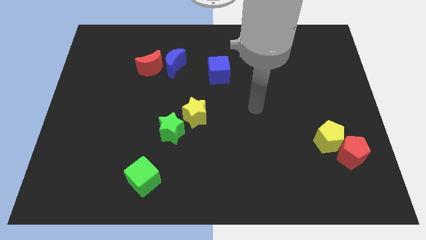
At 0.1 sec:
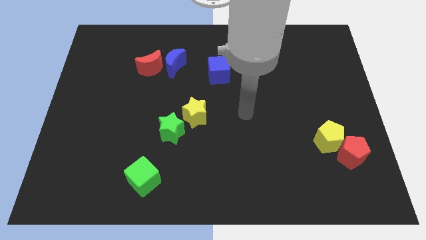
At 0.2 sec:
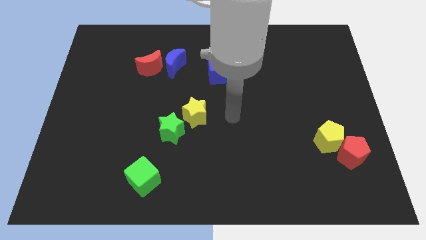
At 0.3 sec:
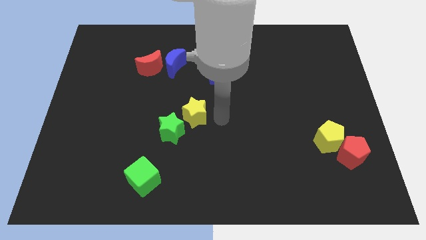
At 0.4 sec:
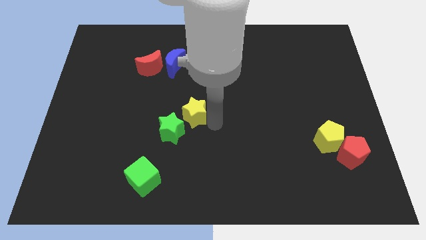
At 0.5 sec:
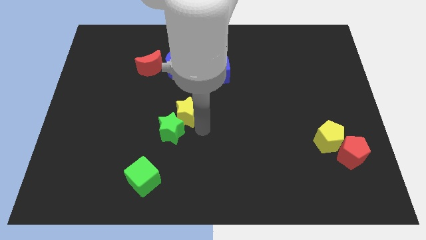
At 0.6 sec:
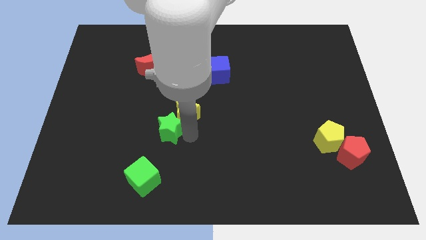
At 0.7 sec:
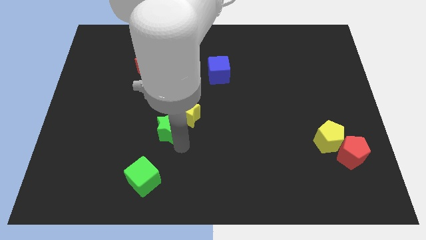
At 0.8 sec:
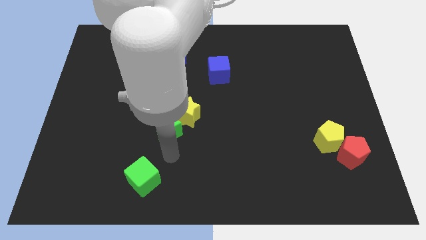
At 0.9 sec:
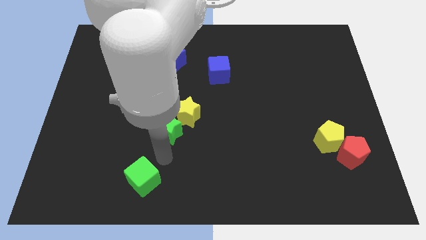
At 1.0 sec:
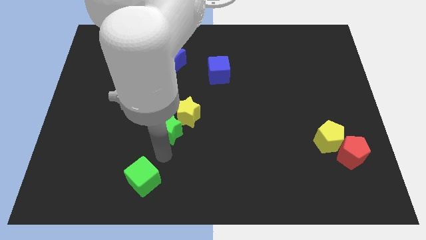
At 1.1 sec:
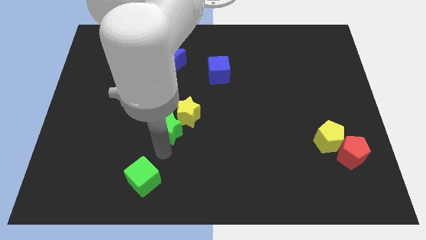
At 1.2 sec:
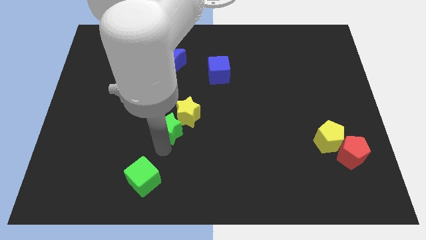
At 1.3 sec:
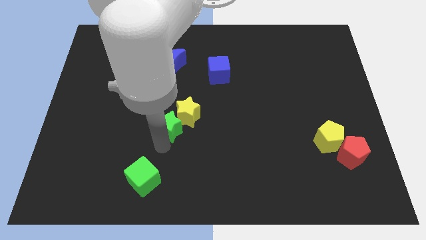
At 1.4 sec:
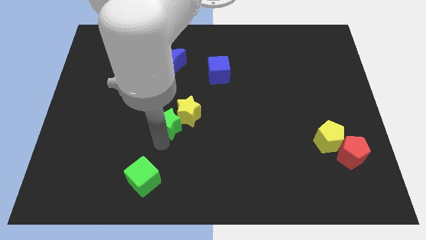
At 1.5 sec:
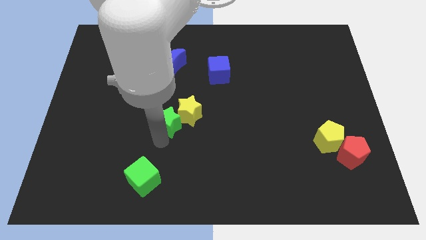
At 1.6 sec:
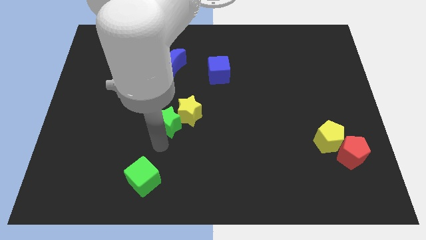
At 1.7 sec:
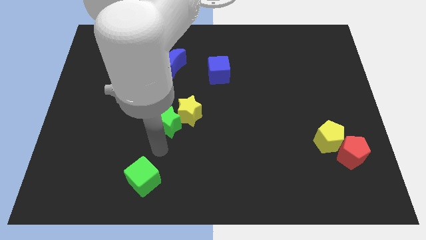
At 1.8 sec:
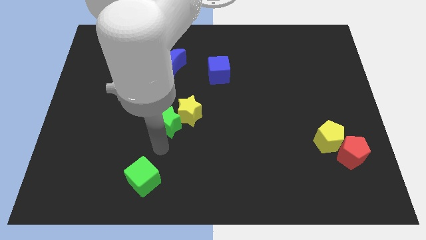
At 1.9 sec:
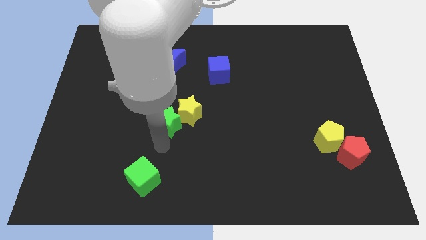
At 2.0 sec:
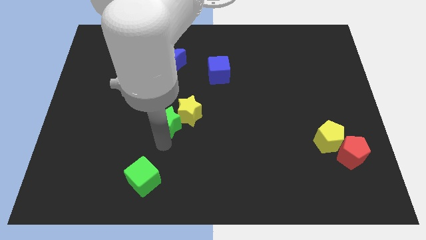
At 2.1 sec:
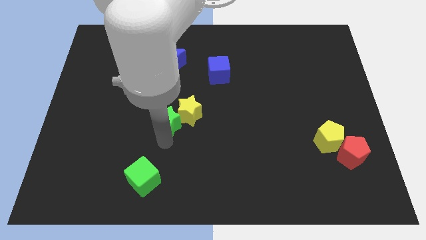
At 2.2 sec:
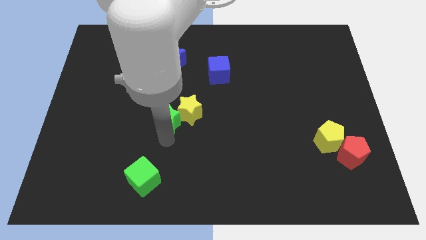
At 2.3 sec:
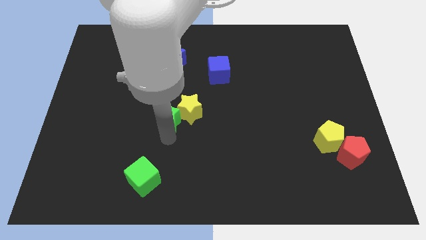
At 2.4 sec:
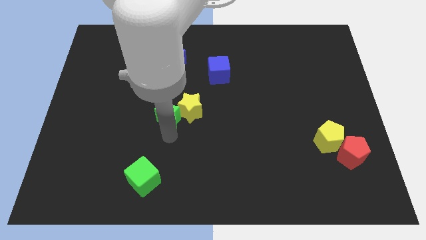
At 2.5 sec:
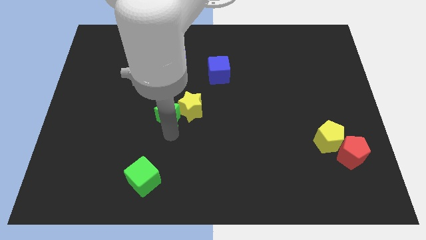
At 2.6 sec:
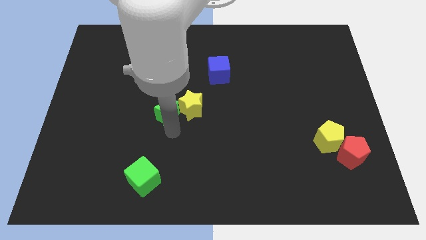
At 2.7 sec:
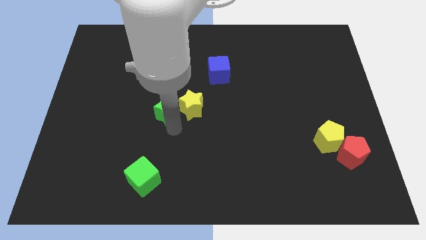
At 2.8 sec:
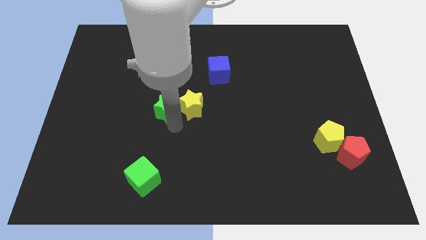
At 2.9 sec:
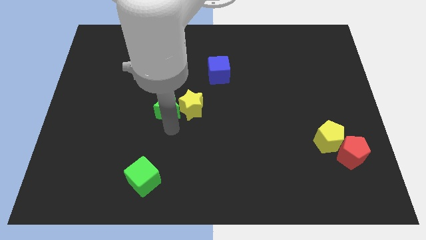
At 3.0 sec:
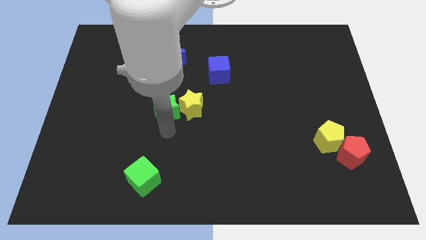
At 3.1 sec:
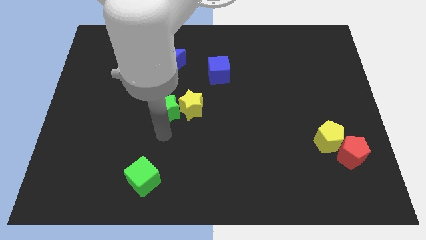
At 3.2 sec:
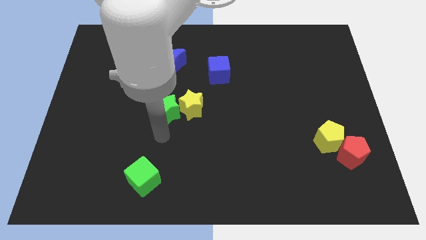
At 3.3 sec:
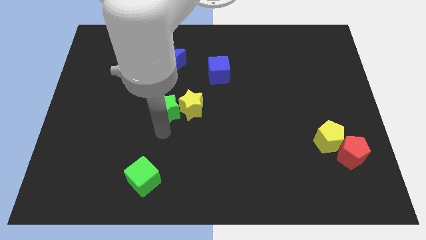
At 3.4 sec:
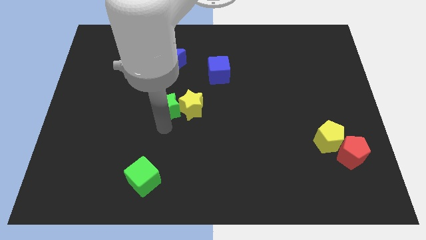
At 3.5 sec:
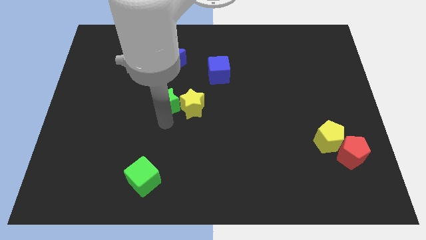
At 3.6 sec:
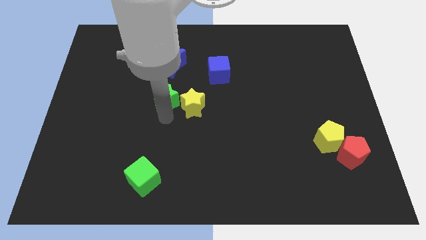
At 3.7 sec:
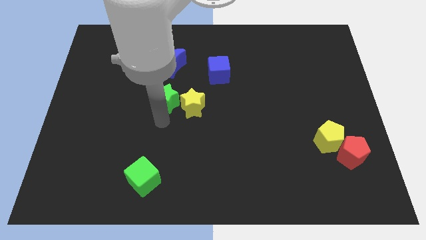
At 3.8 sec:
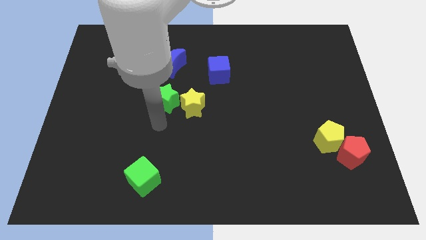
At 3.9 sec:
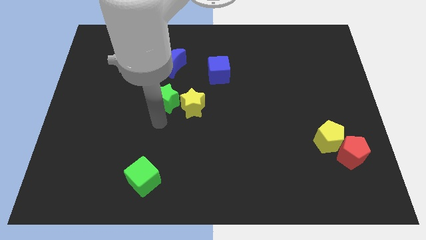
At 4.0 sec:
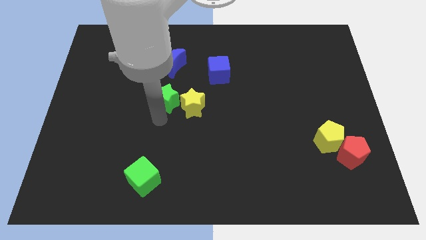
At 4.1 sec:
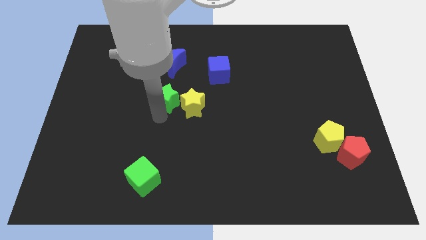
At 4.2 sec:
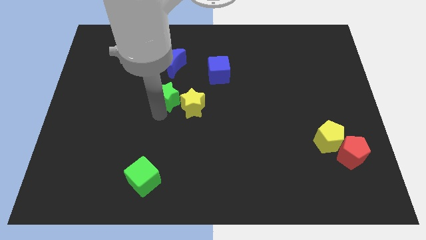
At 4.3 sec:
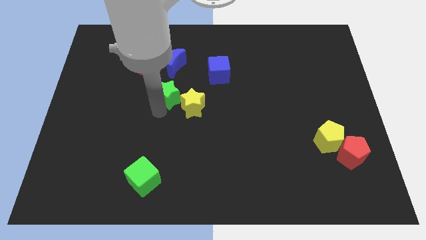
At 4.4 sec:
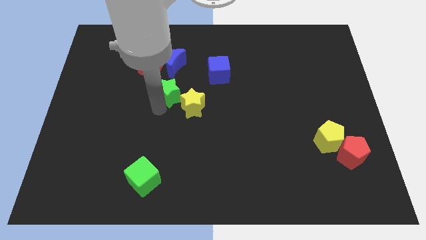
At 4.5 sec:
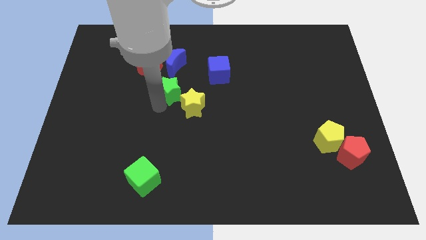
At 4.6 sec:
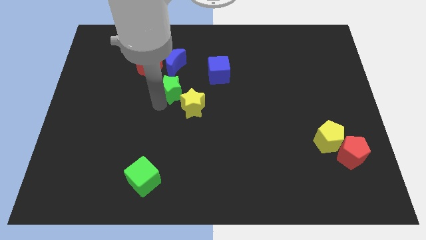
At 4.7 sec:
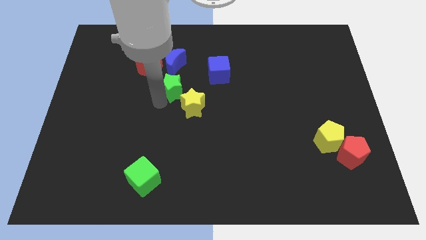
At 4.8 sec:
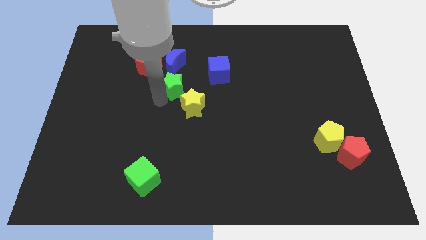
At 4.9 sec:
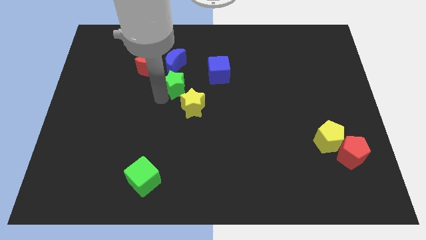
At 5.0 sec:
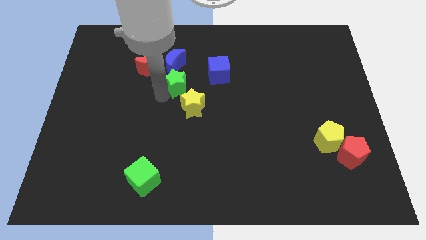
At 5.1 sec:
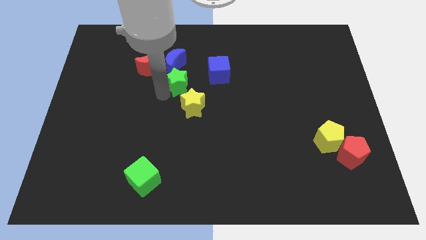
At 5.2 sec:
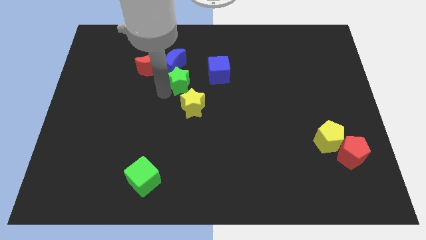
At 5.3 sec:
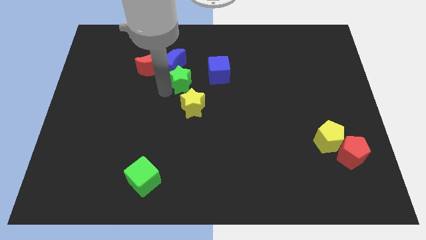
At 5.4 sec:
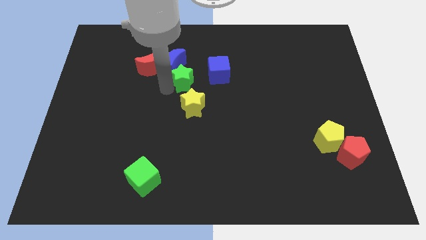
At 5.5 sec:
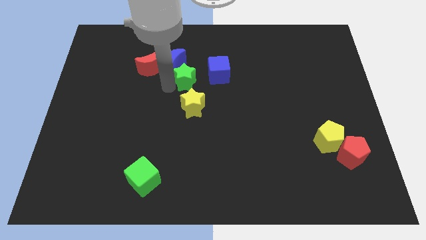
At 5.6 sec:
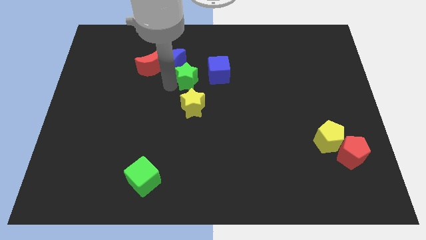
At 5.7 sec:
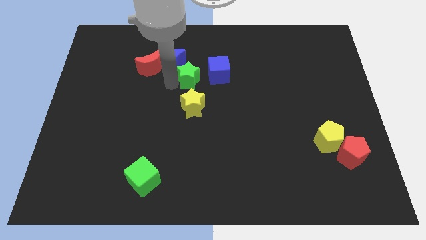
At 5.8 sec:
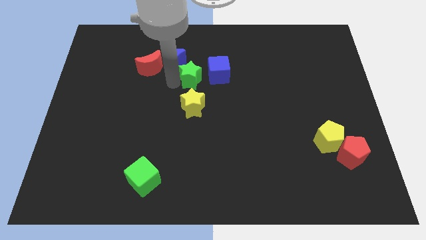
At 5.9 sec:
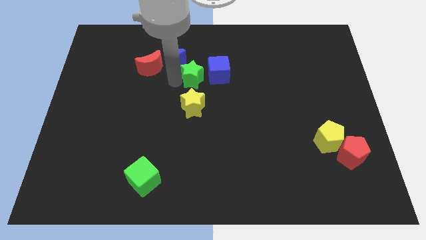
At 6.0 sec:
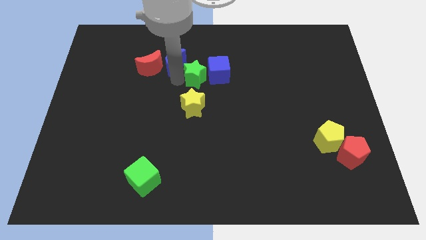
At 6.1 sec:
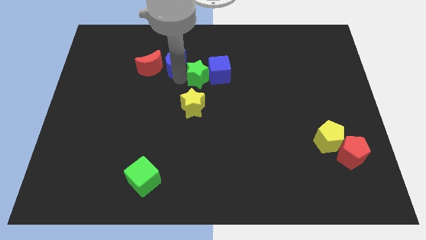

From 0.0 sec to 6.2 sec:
slide the green star towards the blue cube

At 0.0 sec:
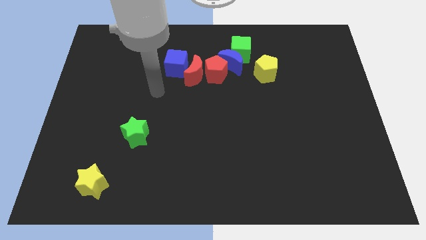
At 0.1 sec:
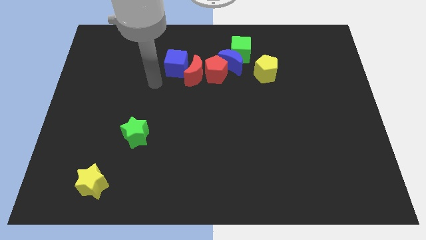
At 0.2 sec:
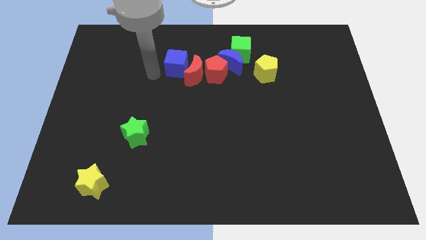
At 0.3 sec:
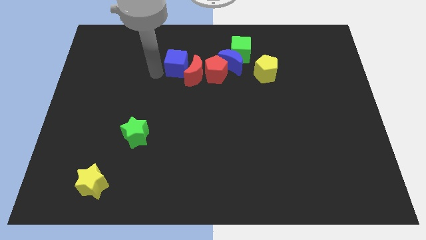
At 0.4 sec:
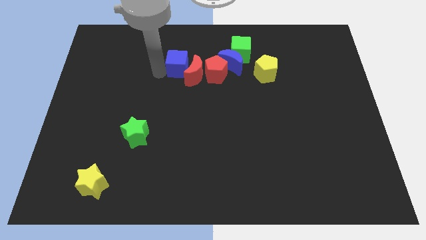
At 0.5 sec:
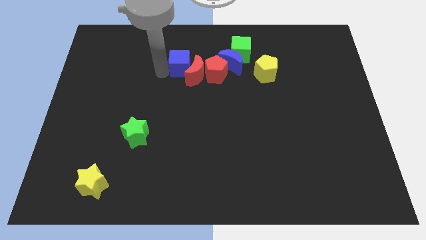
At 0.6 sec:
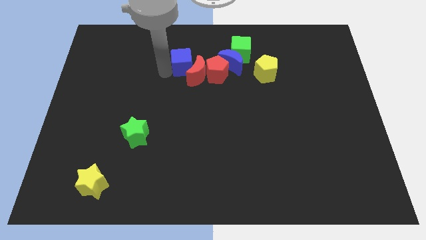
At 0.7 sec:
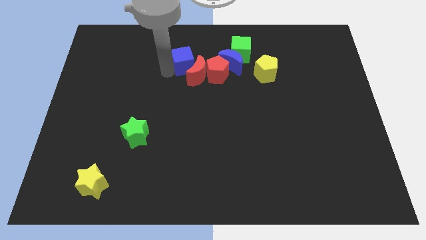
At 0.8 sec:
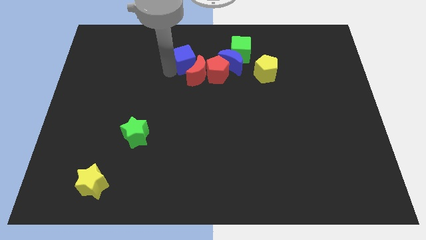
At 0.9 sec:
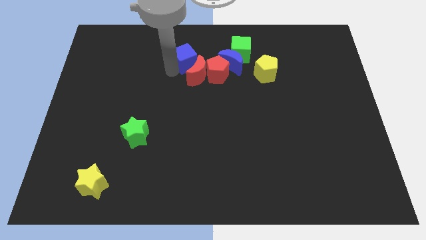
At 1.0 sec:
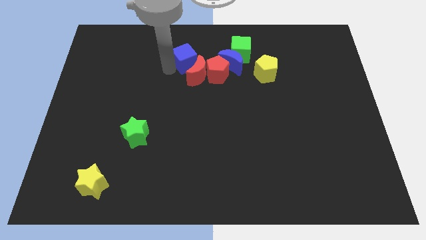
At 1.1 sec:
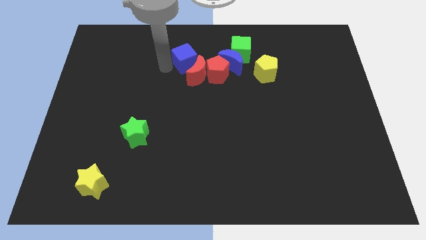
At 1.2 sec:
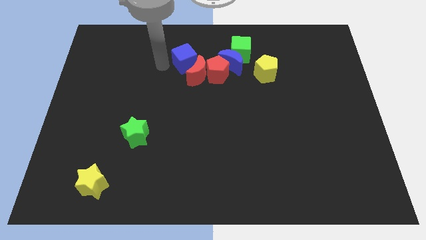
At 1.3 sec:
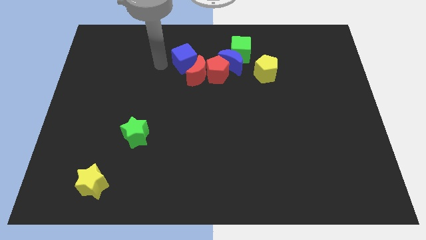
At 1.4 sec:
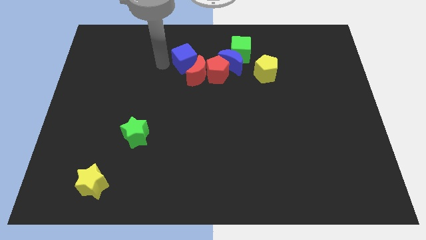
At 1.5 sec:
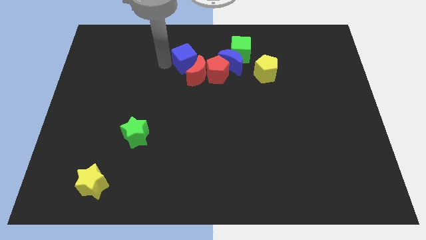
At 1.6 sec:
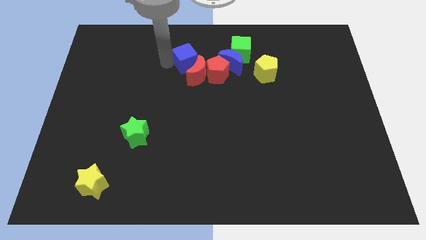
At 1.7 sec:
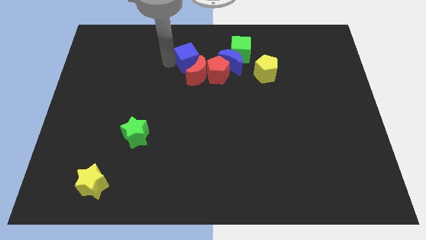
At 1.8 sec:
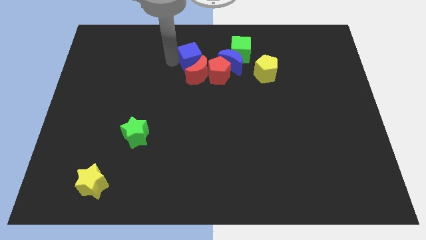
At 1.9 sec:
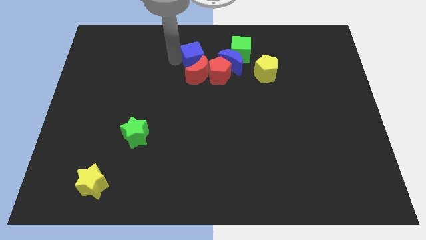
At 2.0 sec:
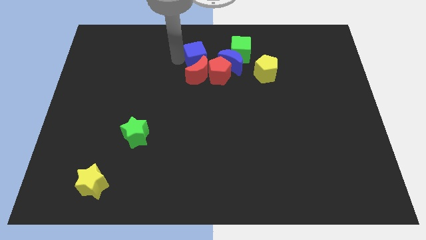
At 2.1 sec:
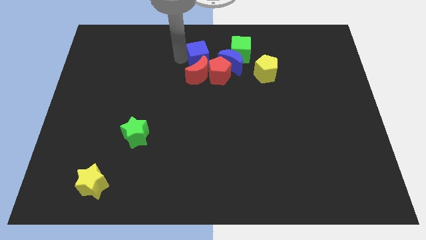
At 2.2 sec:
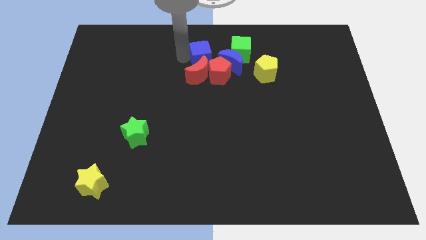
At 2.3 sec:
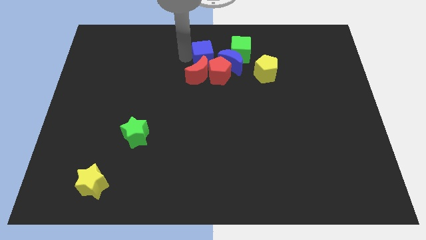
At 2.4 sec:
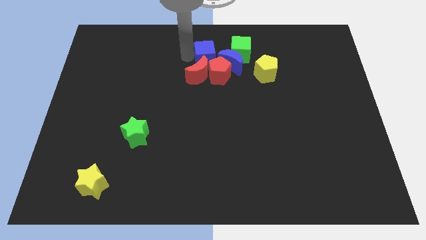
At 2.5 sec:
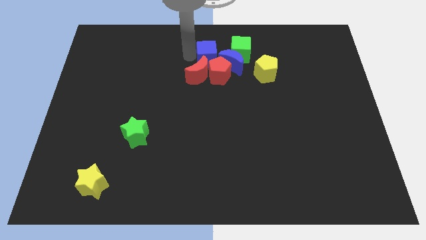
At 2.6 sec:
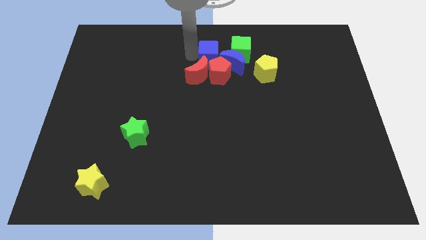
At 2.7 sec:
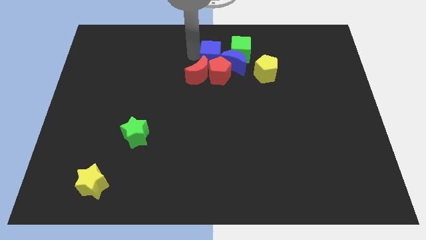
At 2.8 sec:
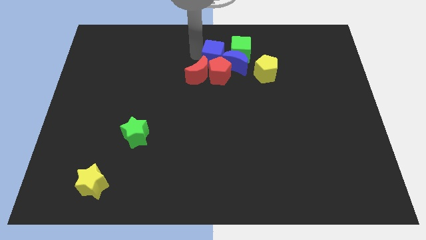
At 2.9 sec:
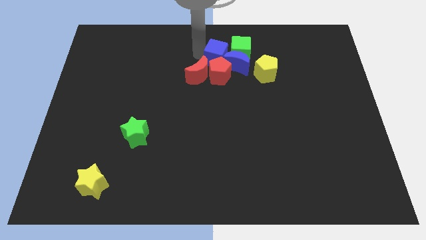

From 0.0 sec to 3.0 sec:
put the blue cube close to the blue moon
